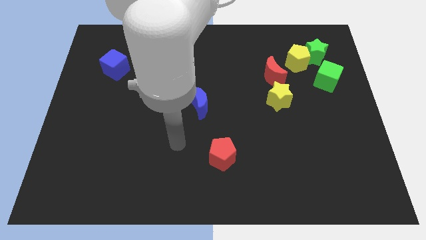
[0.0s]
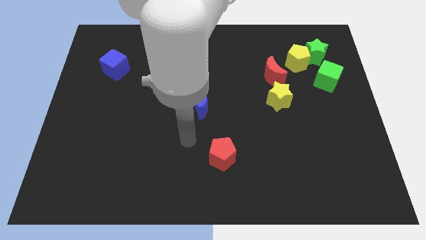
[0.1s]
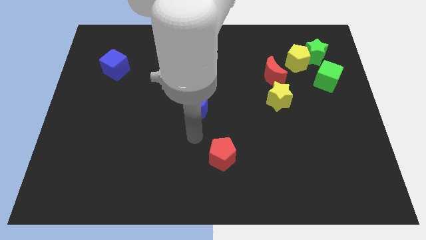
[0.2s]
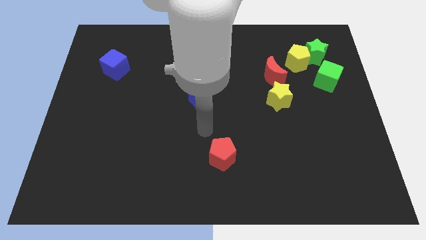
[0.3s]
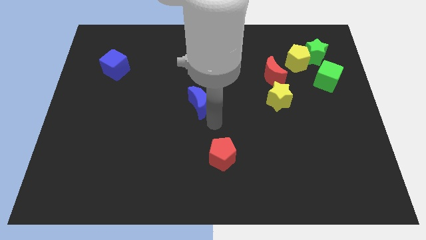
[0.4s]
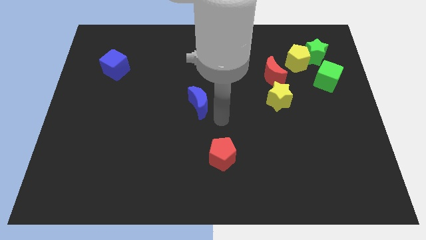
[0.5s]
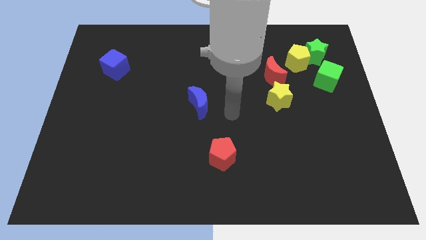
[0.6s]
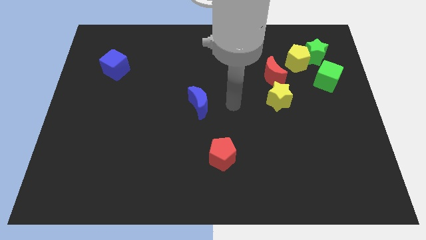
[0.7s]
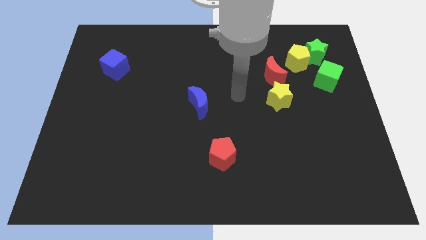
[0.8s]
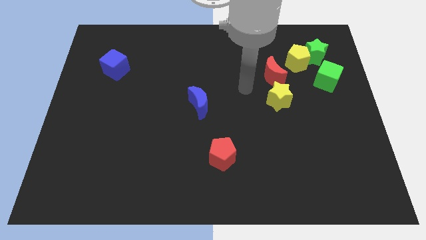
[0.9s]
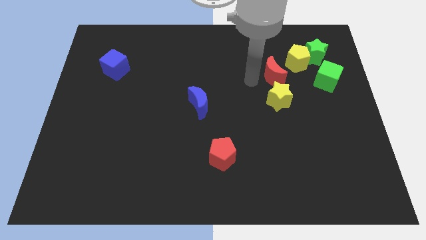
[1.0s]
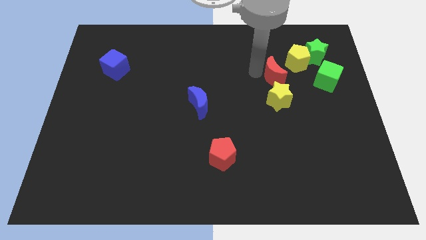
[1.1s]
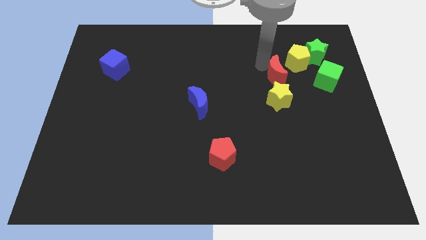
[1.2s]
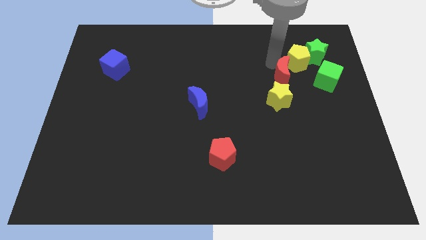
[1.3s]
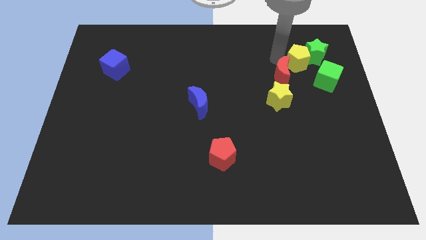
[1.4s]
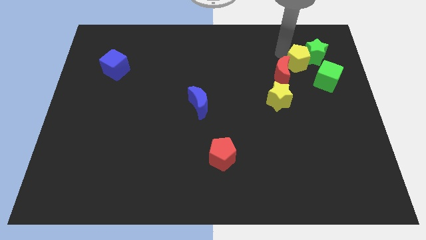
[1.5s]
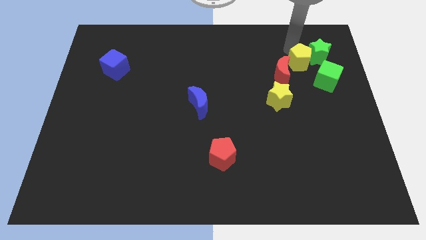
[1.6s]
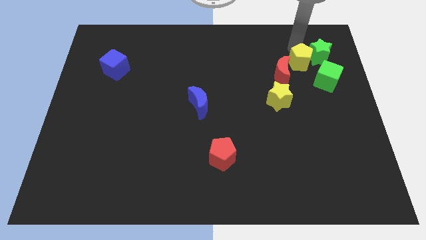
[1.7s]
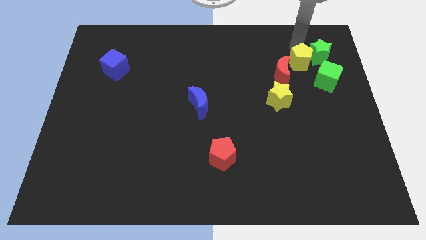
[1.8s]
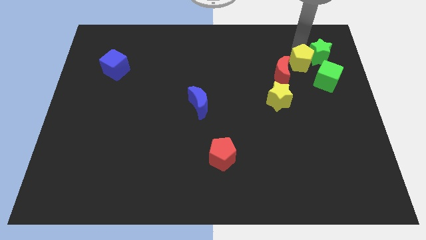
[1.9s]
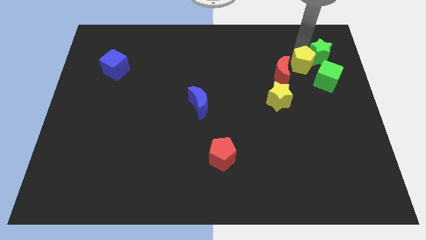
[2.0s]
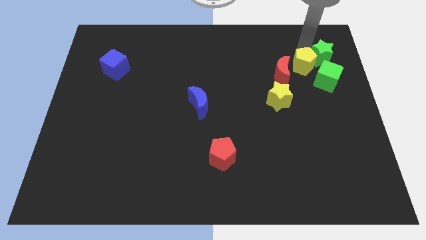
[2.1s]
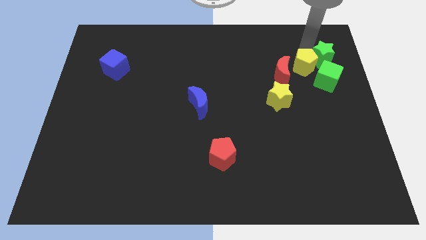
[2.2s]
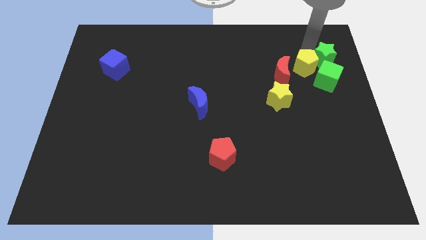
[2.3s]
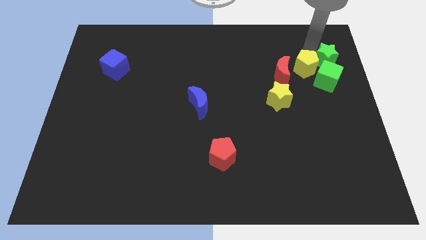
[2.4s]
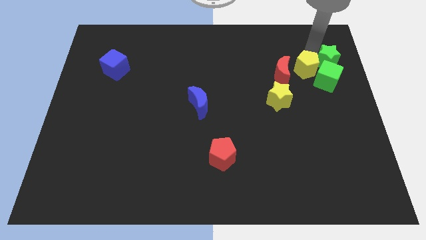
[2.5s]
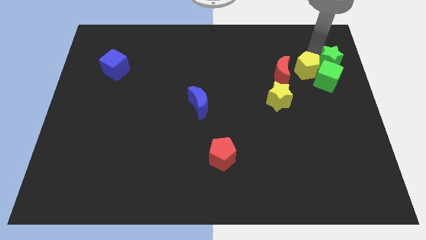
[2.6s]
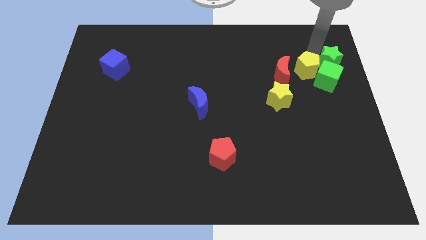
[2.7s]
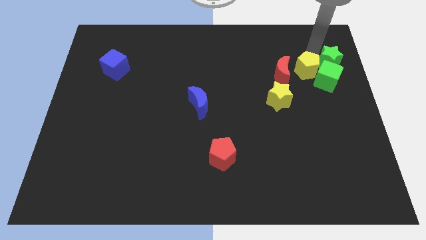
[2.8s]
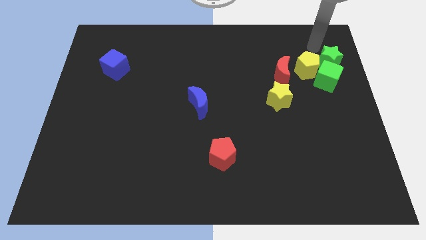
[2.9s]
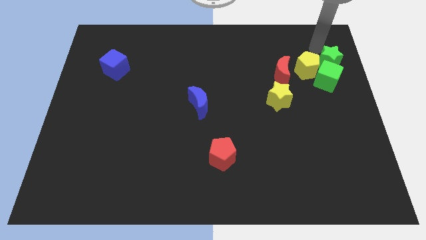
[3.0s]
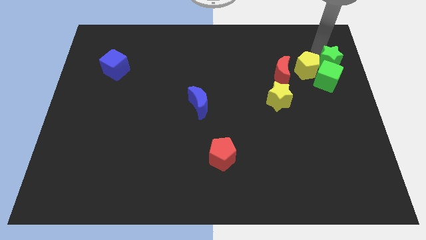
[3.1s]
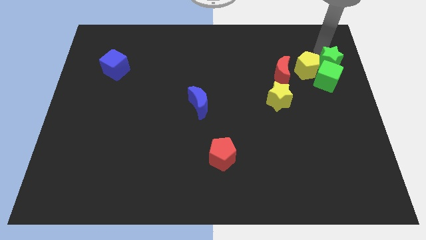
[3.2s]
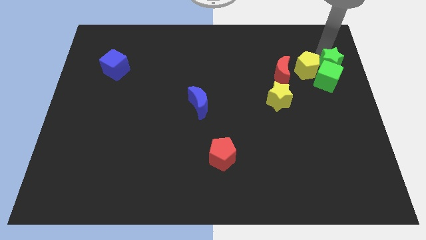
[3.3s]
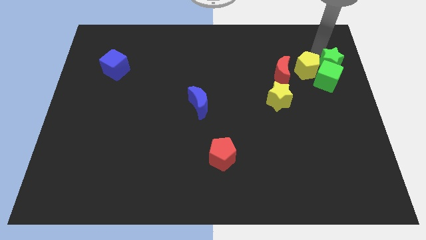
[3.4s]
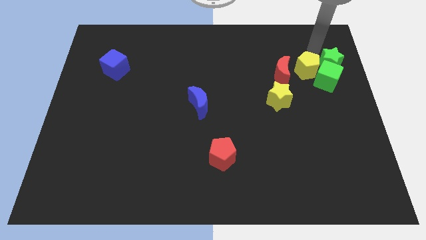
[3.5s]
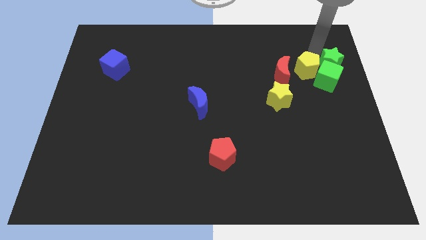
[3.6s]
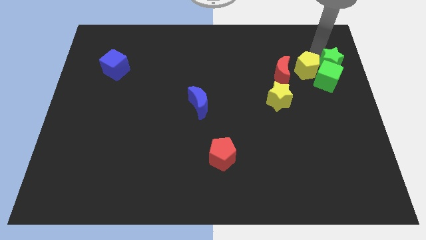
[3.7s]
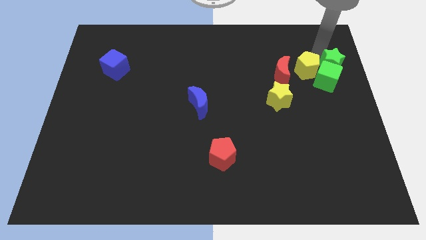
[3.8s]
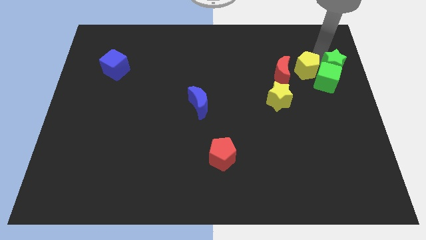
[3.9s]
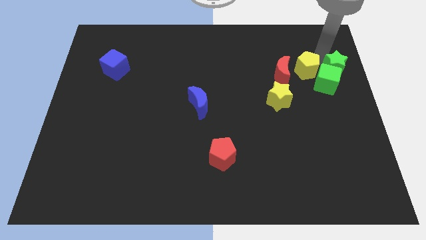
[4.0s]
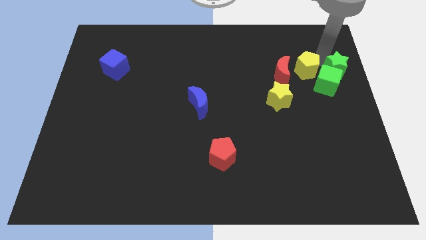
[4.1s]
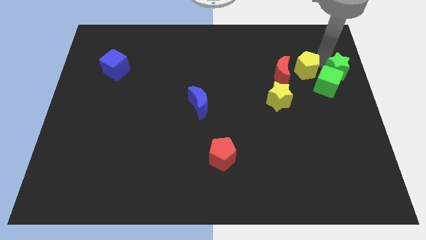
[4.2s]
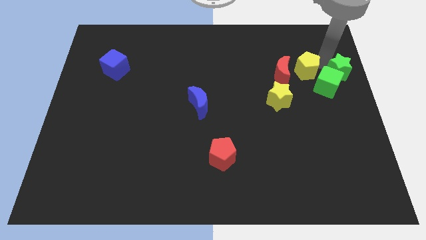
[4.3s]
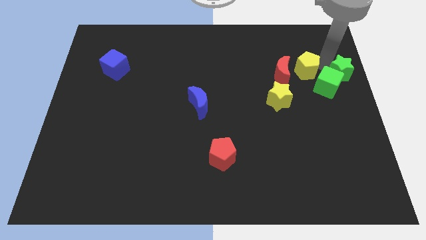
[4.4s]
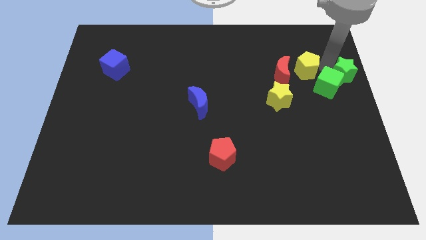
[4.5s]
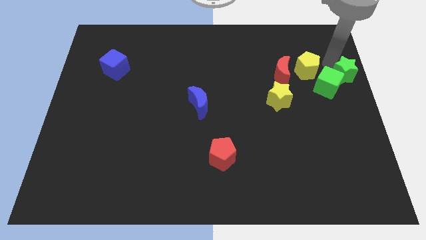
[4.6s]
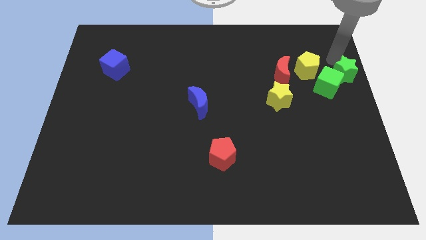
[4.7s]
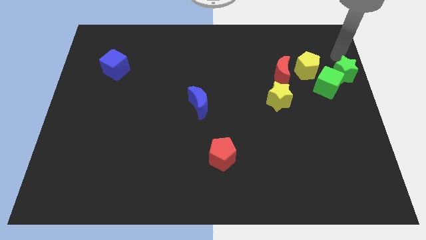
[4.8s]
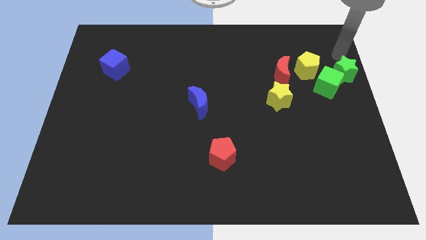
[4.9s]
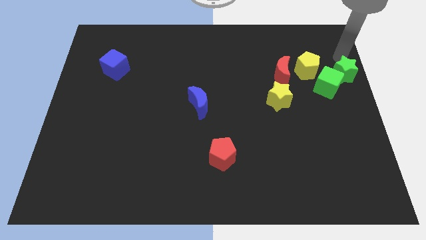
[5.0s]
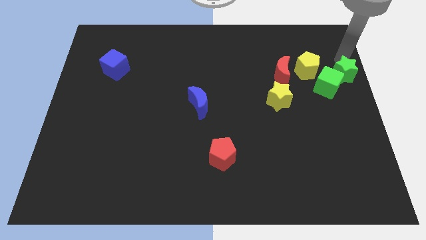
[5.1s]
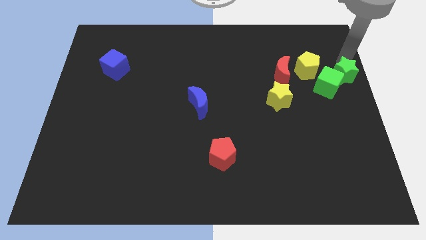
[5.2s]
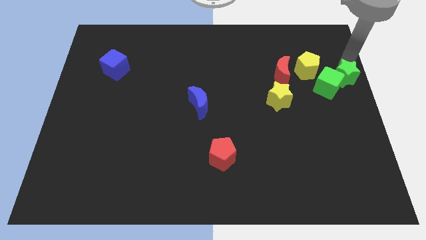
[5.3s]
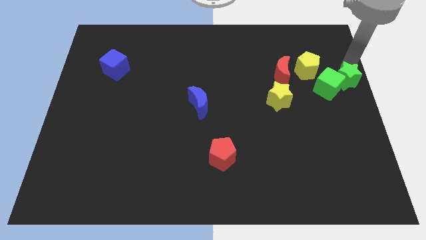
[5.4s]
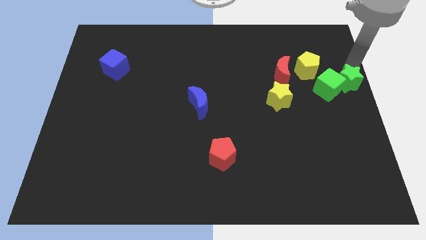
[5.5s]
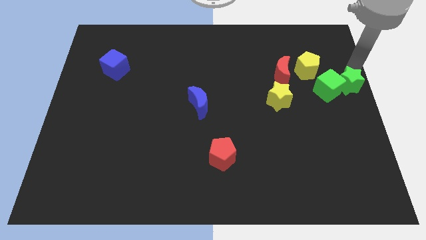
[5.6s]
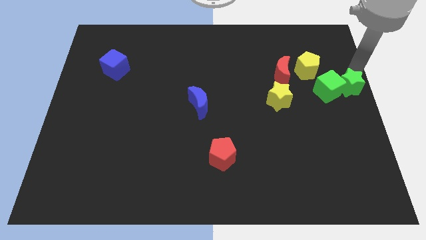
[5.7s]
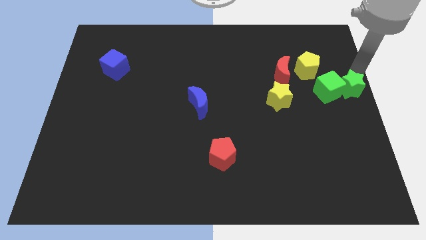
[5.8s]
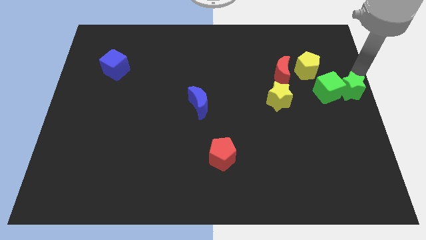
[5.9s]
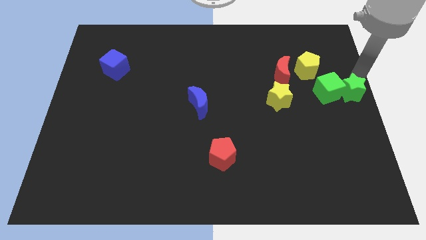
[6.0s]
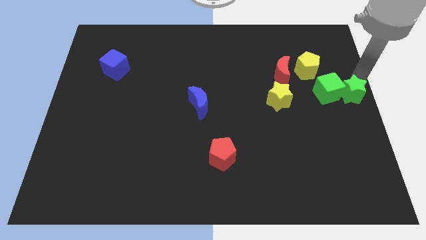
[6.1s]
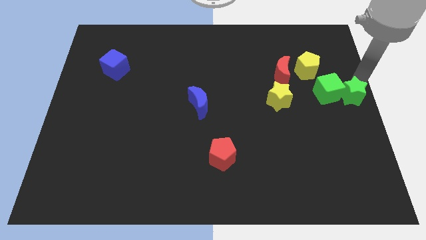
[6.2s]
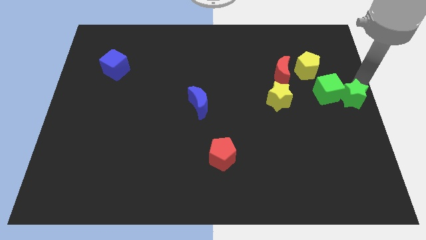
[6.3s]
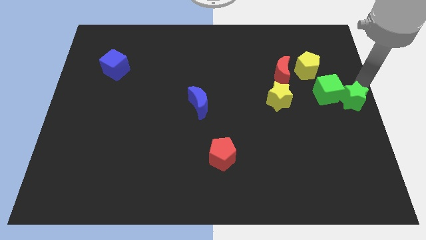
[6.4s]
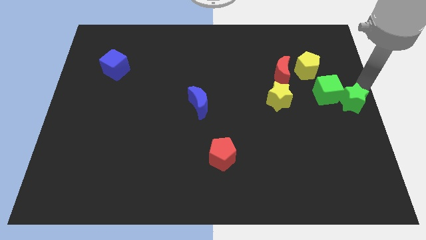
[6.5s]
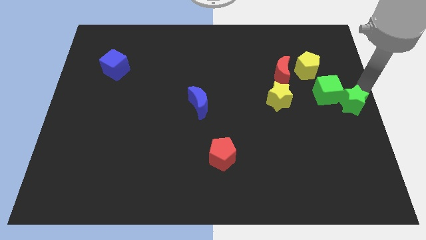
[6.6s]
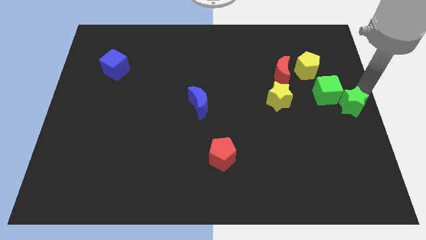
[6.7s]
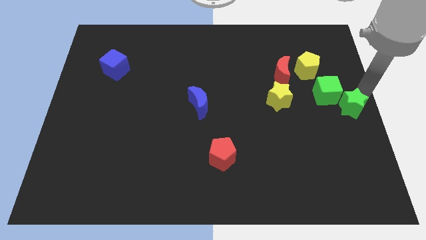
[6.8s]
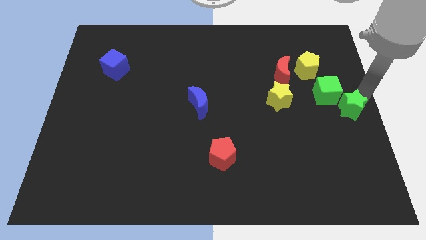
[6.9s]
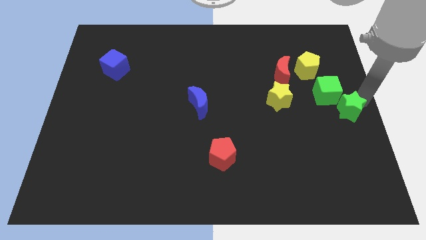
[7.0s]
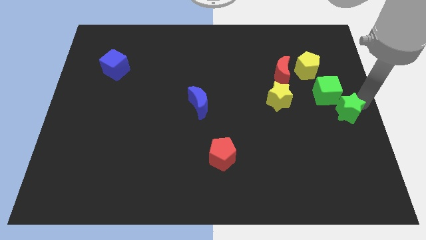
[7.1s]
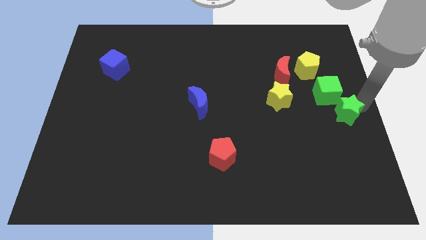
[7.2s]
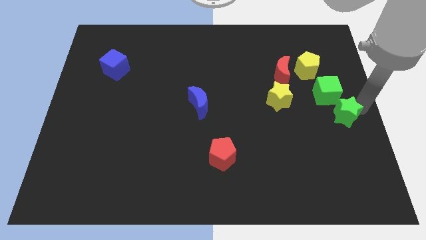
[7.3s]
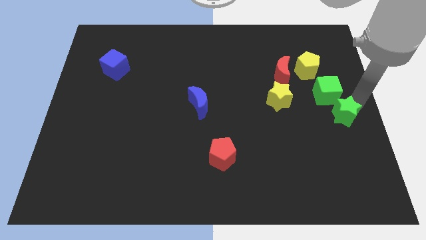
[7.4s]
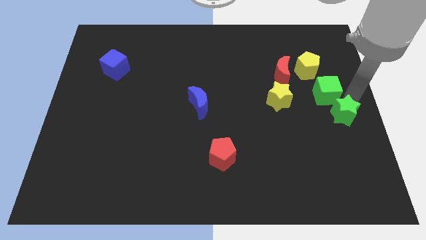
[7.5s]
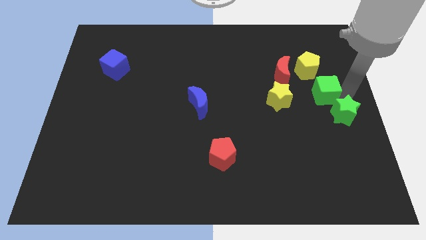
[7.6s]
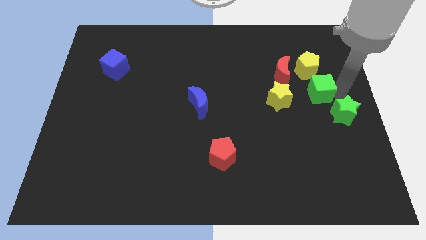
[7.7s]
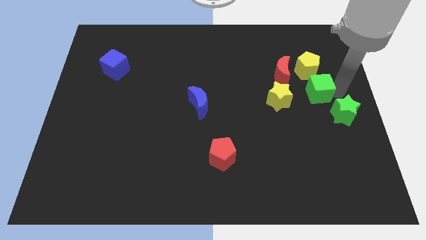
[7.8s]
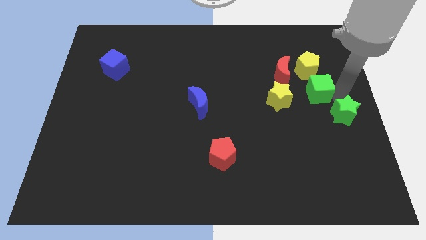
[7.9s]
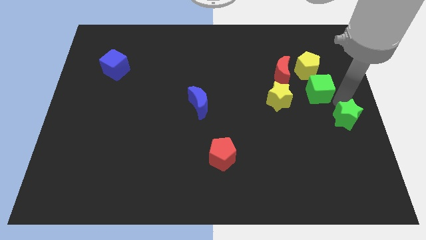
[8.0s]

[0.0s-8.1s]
push the green star down
